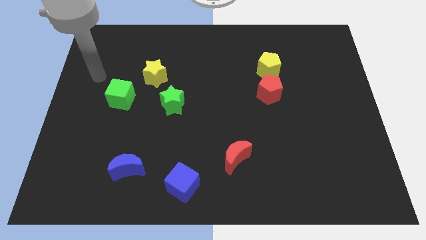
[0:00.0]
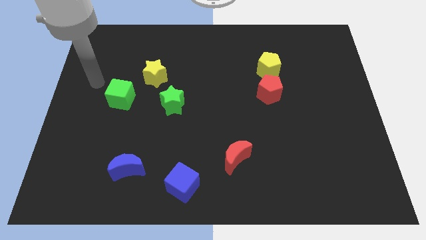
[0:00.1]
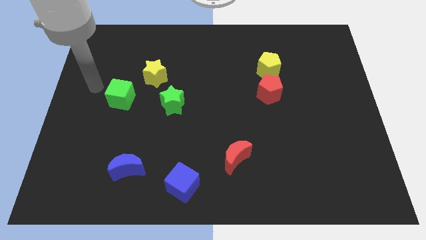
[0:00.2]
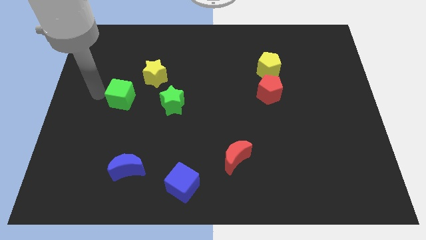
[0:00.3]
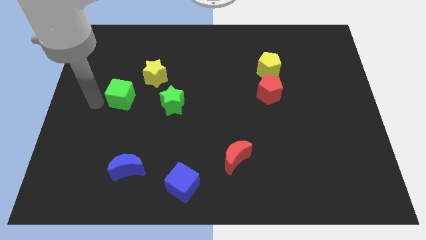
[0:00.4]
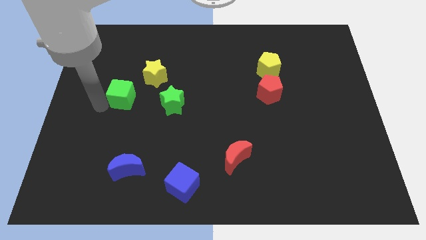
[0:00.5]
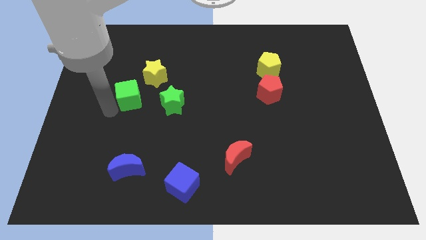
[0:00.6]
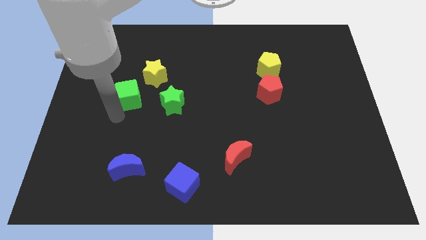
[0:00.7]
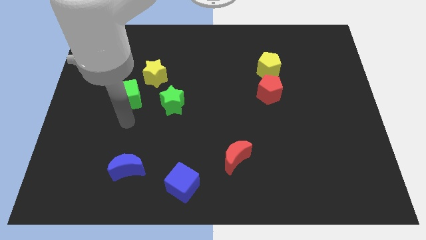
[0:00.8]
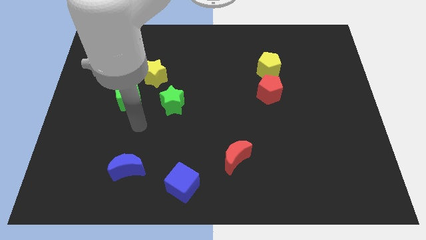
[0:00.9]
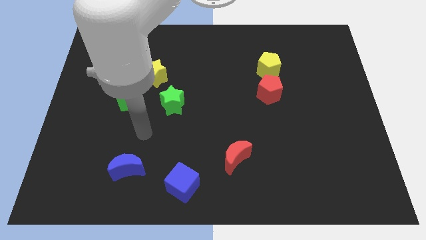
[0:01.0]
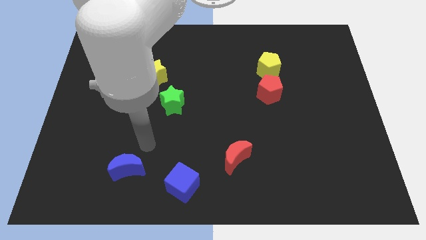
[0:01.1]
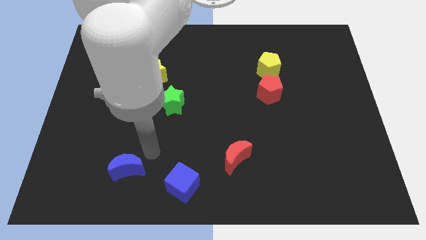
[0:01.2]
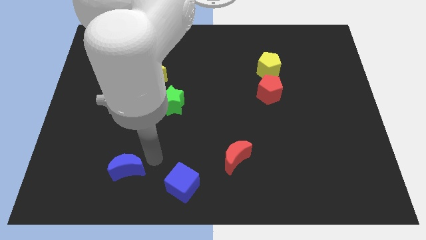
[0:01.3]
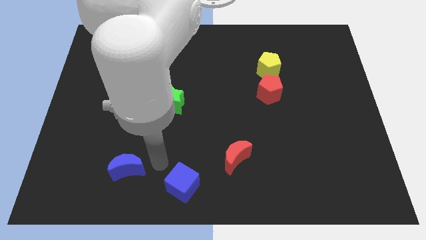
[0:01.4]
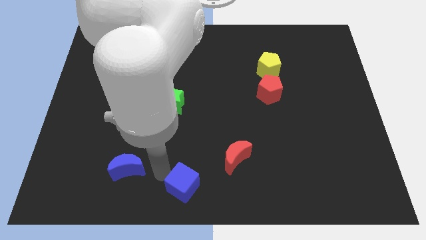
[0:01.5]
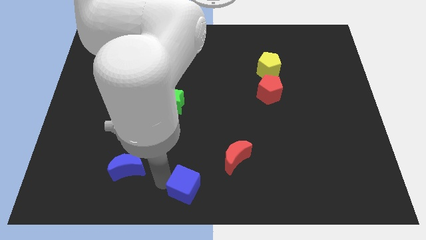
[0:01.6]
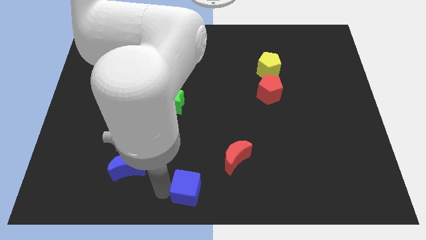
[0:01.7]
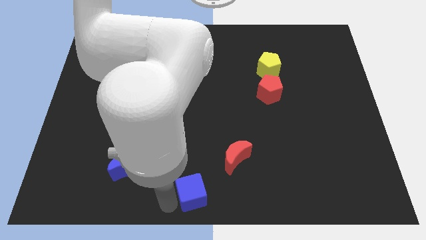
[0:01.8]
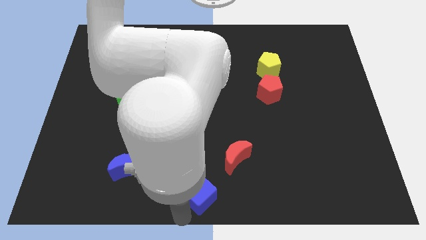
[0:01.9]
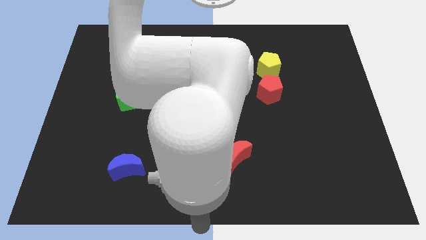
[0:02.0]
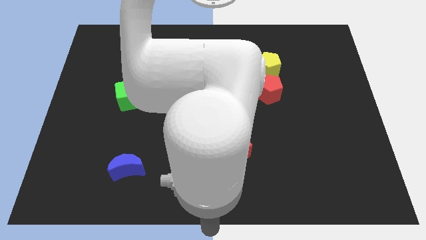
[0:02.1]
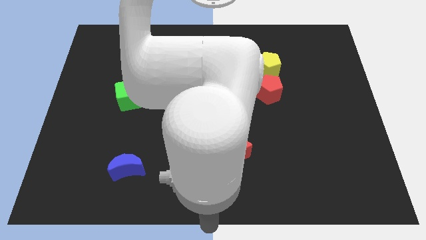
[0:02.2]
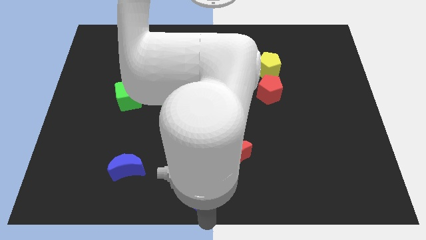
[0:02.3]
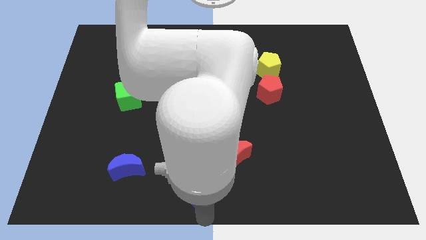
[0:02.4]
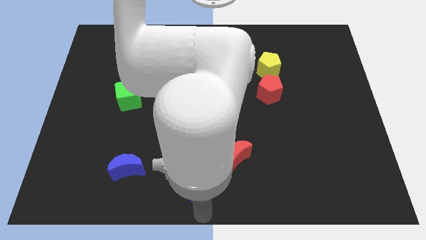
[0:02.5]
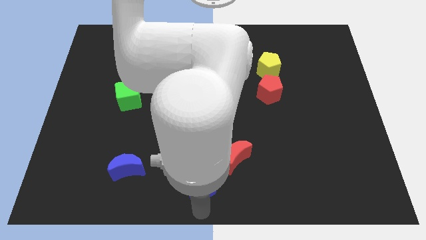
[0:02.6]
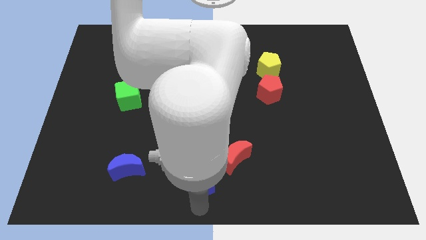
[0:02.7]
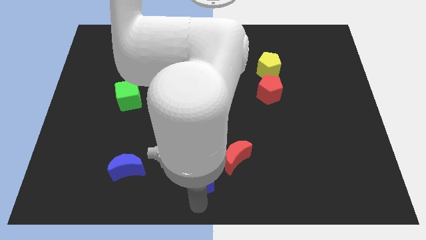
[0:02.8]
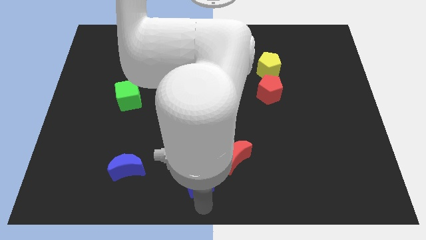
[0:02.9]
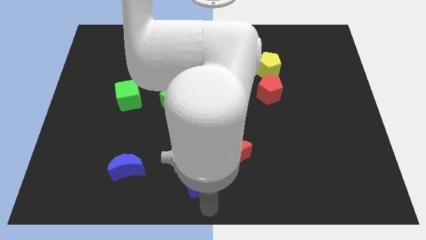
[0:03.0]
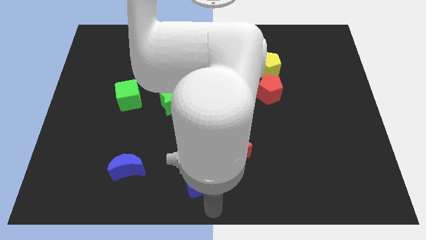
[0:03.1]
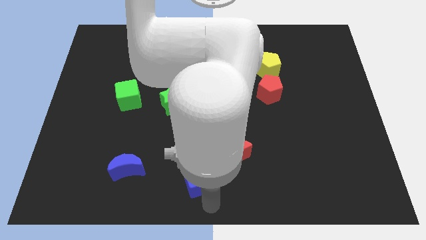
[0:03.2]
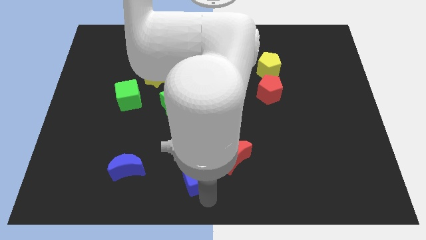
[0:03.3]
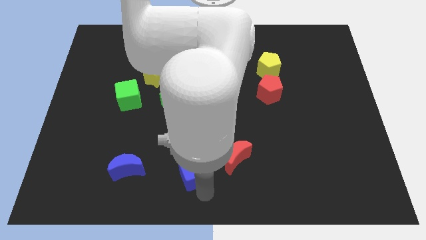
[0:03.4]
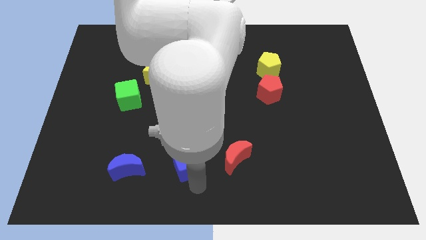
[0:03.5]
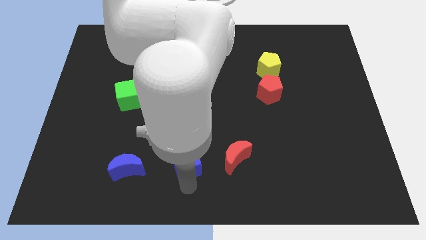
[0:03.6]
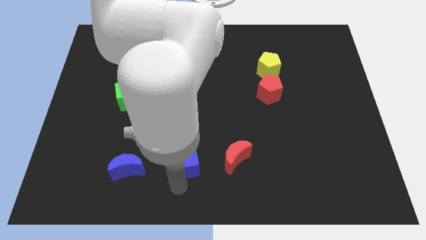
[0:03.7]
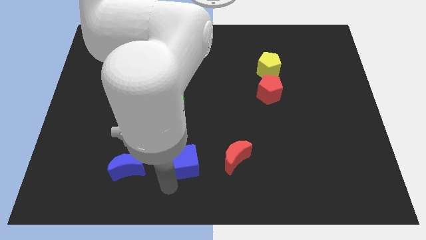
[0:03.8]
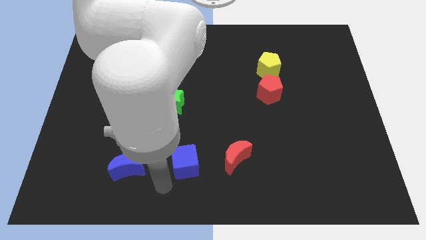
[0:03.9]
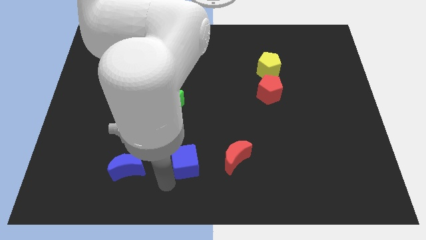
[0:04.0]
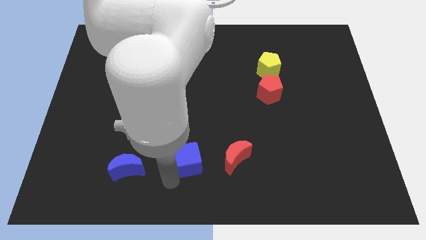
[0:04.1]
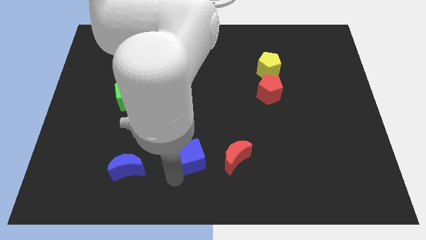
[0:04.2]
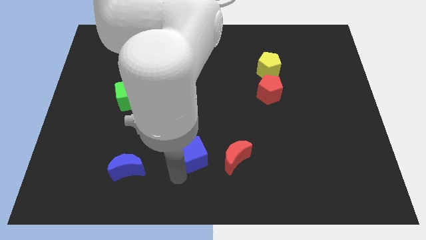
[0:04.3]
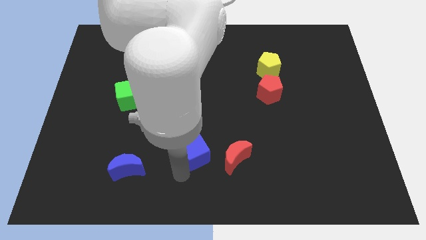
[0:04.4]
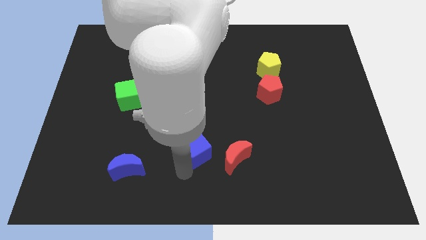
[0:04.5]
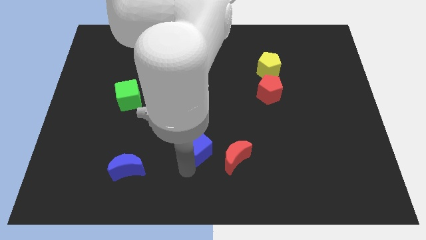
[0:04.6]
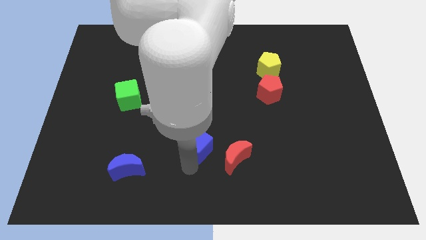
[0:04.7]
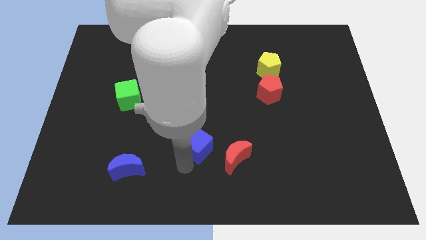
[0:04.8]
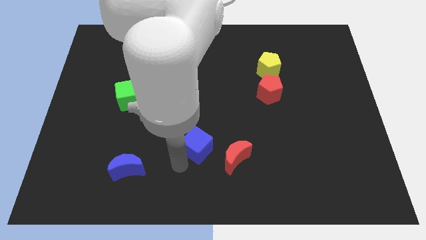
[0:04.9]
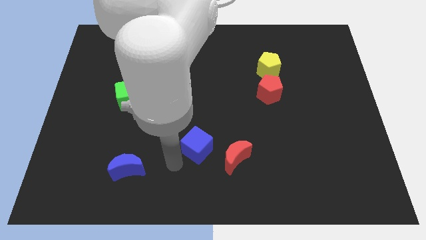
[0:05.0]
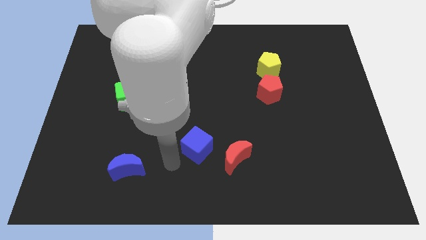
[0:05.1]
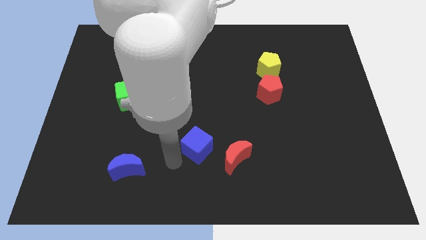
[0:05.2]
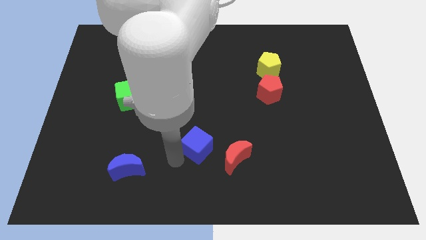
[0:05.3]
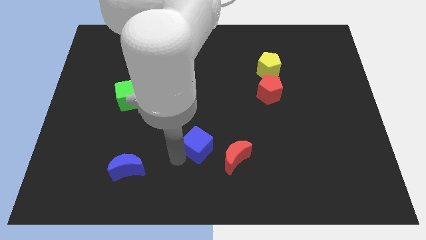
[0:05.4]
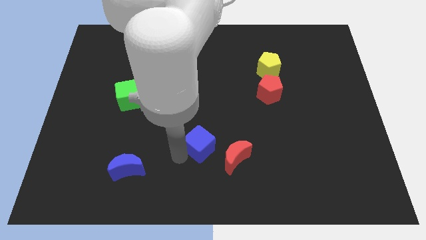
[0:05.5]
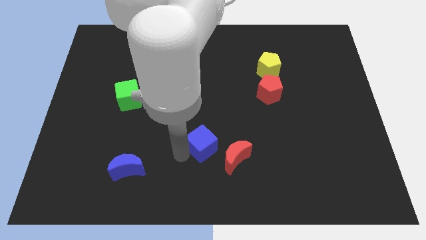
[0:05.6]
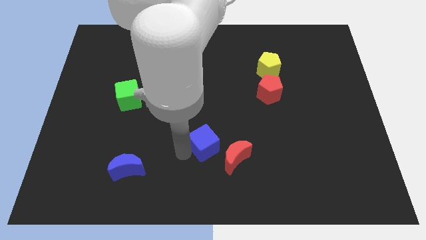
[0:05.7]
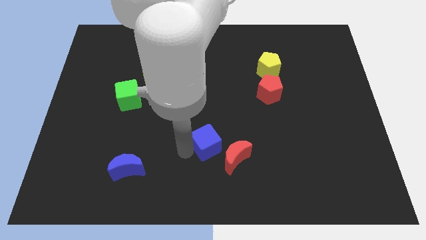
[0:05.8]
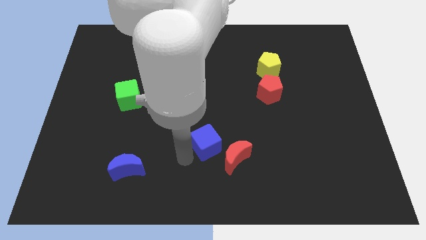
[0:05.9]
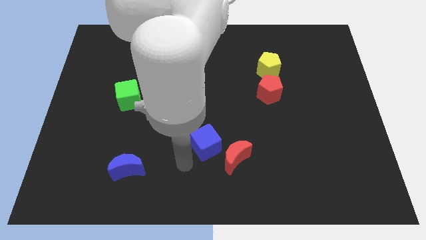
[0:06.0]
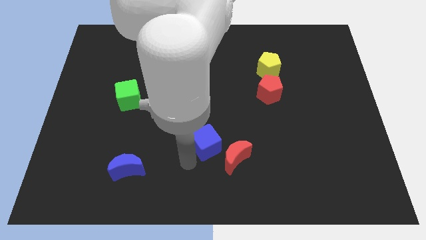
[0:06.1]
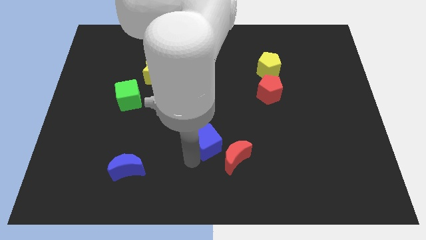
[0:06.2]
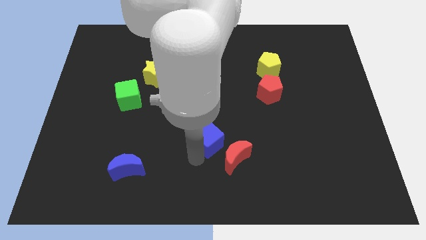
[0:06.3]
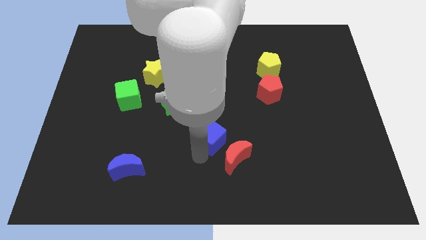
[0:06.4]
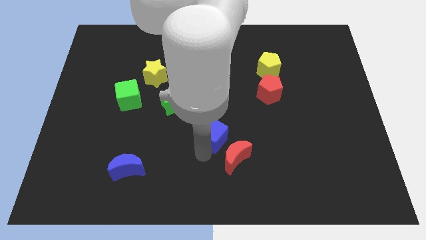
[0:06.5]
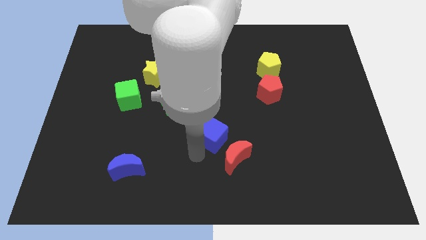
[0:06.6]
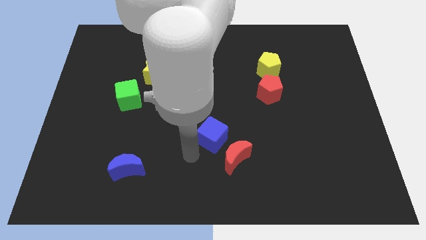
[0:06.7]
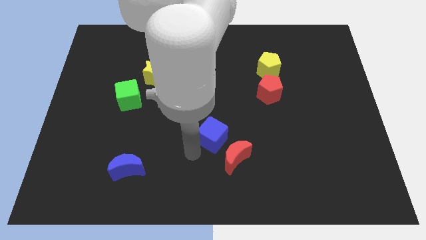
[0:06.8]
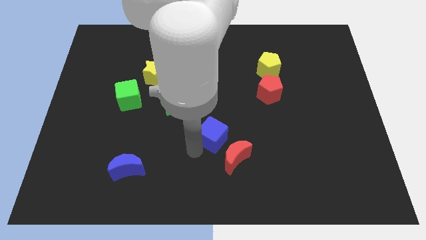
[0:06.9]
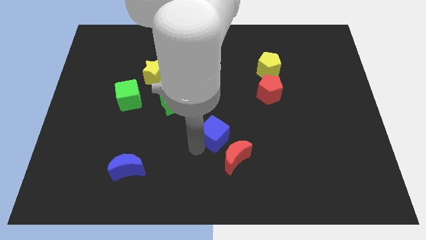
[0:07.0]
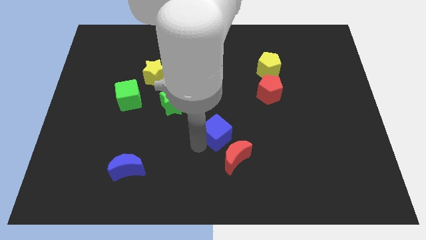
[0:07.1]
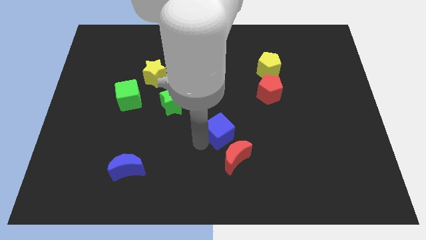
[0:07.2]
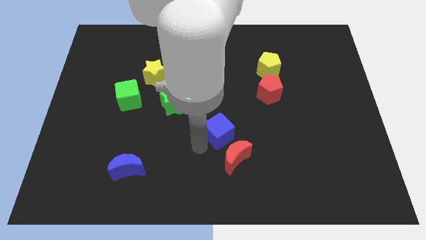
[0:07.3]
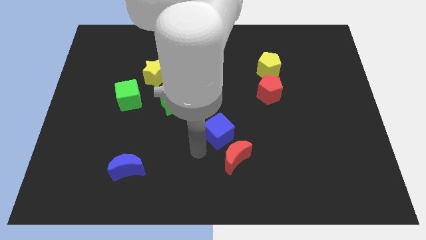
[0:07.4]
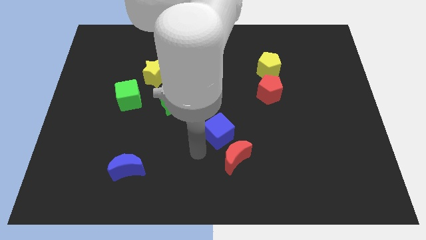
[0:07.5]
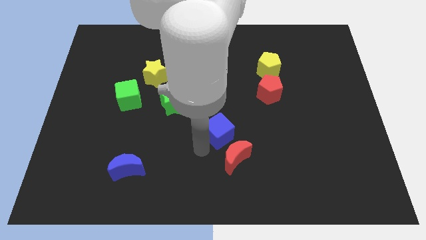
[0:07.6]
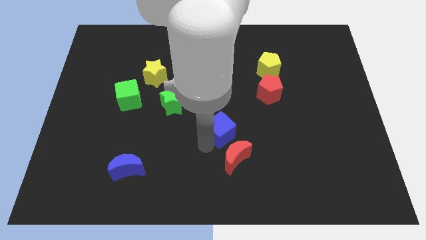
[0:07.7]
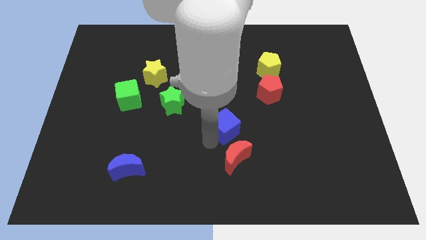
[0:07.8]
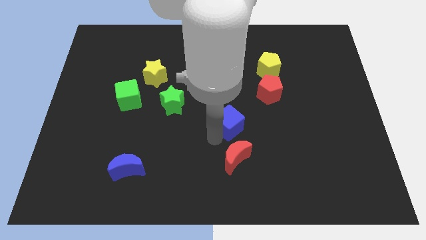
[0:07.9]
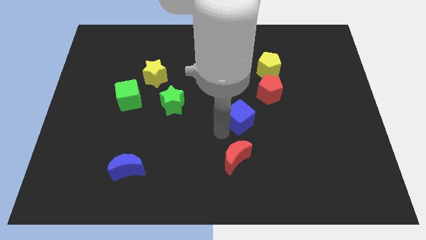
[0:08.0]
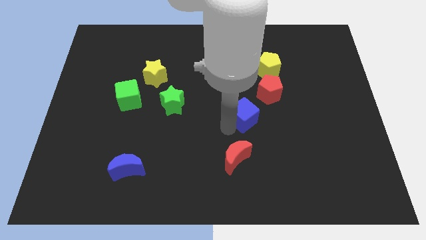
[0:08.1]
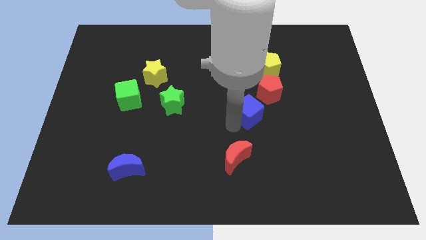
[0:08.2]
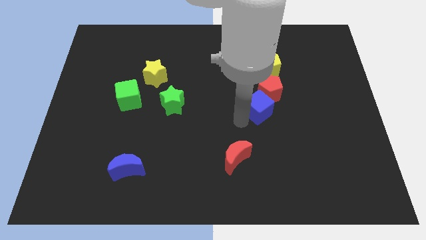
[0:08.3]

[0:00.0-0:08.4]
move the blue cube close to the red pentagon
